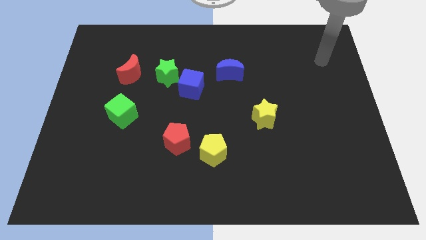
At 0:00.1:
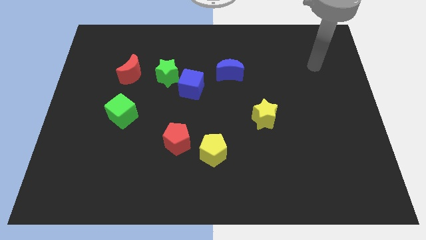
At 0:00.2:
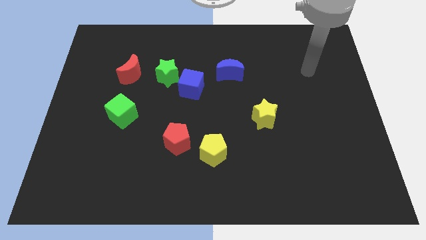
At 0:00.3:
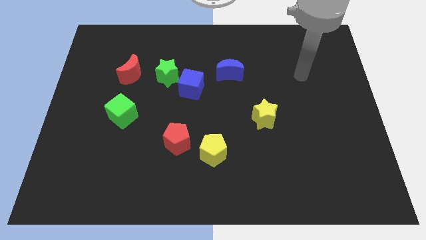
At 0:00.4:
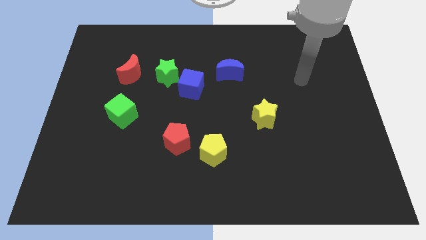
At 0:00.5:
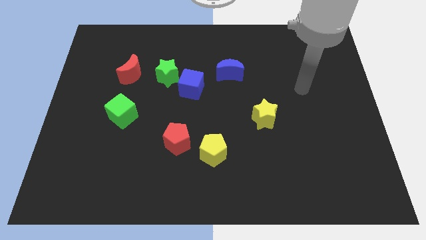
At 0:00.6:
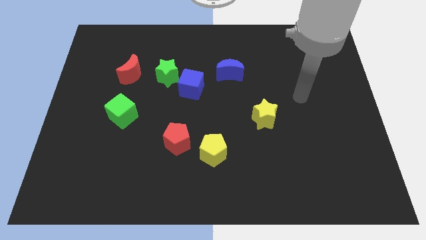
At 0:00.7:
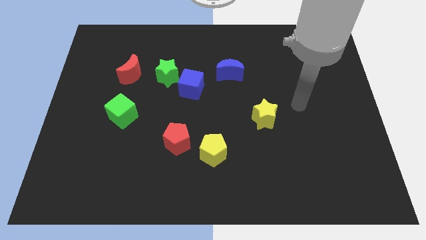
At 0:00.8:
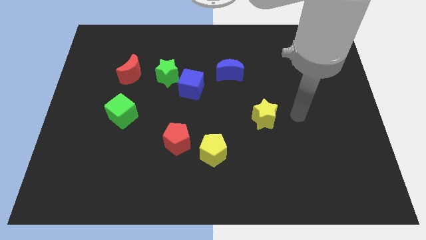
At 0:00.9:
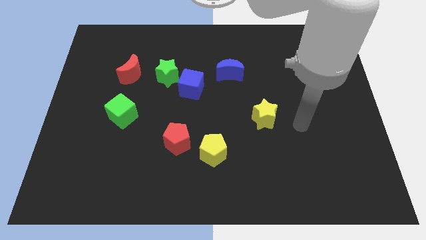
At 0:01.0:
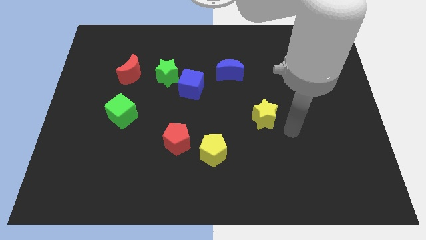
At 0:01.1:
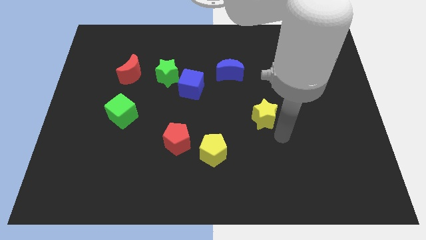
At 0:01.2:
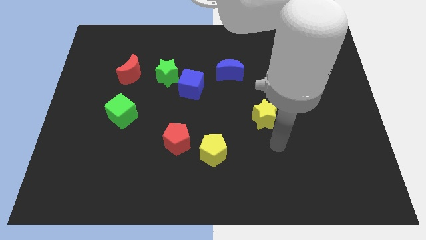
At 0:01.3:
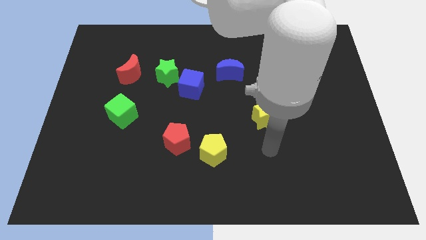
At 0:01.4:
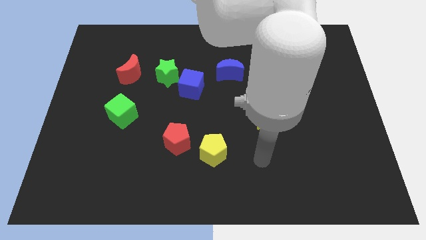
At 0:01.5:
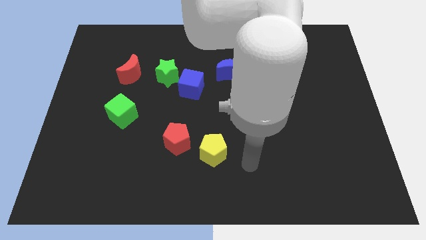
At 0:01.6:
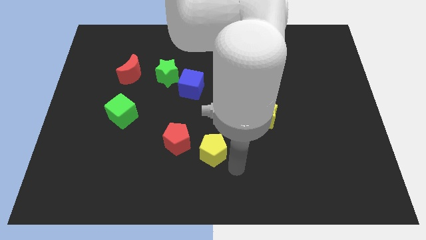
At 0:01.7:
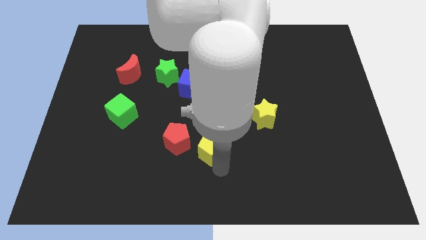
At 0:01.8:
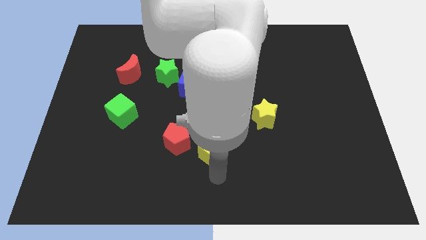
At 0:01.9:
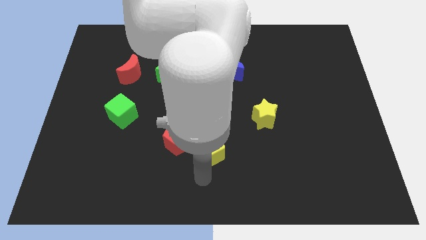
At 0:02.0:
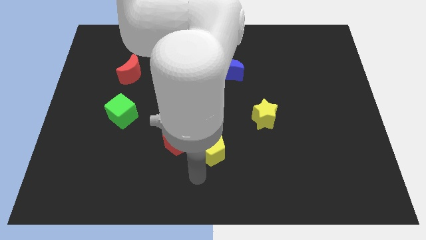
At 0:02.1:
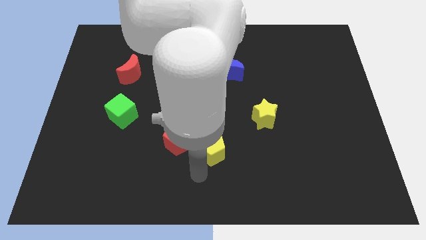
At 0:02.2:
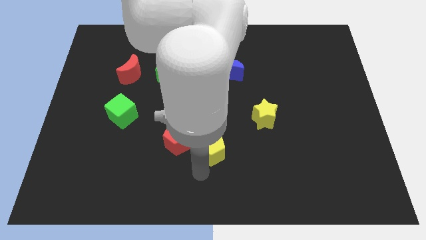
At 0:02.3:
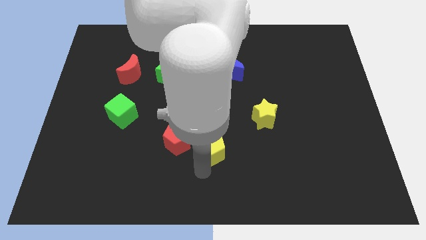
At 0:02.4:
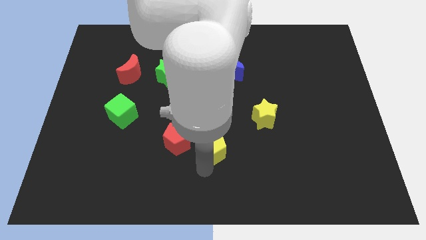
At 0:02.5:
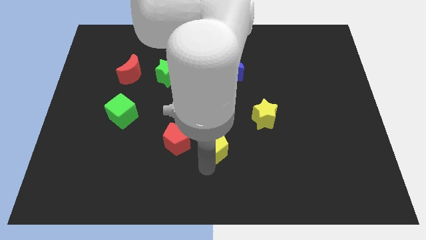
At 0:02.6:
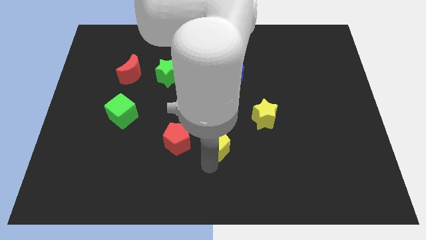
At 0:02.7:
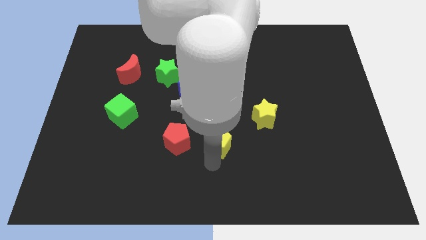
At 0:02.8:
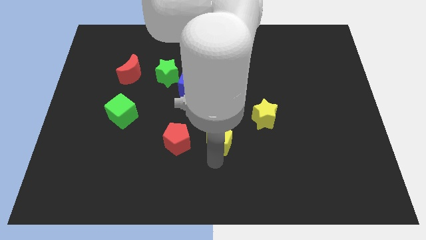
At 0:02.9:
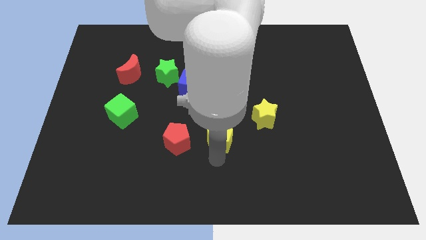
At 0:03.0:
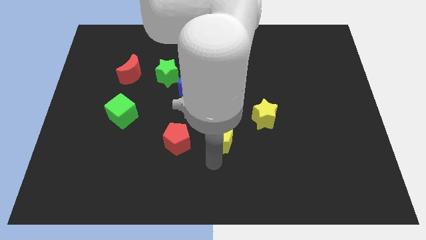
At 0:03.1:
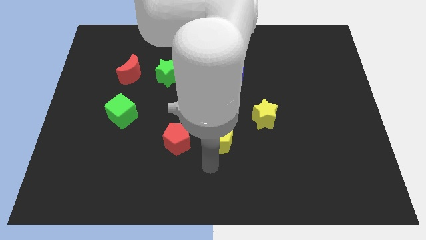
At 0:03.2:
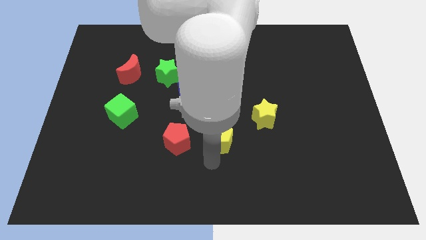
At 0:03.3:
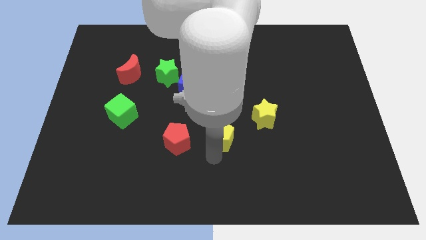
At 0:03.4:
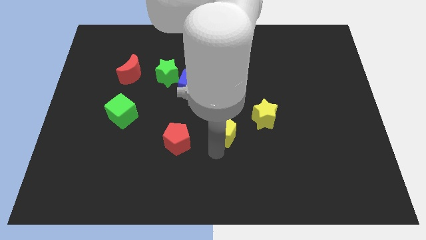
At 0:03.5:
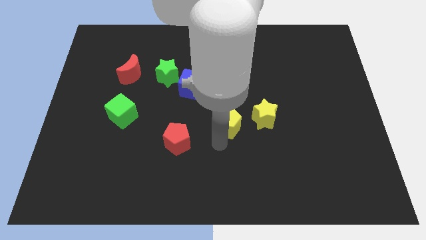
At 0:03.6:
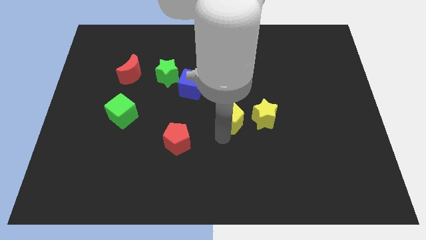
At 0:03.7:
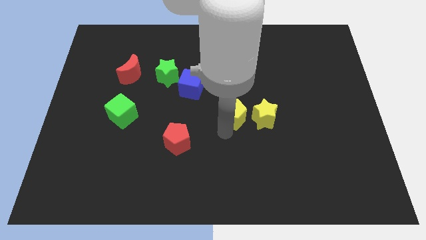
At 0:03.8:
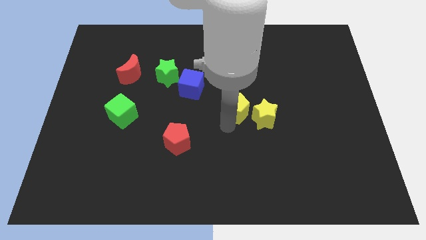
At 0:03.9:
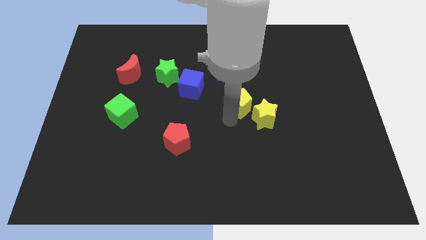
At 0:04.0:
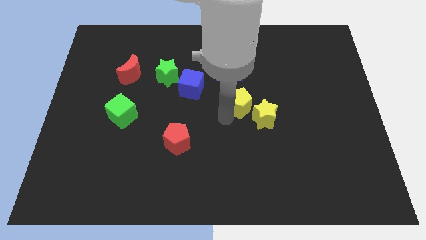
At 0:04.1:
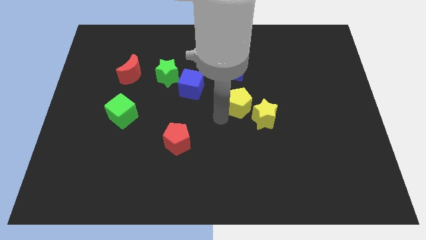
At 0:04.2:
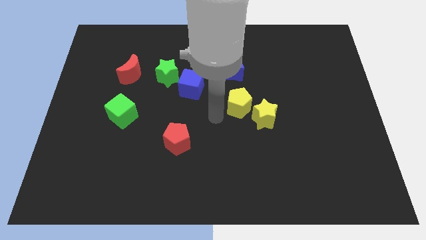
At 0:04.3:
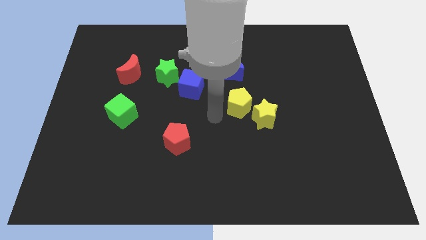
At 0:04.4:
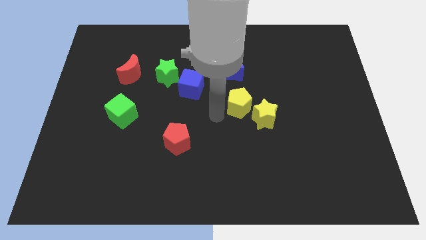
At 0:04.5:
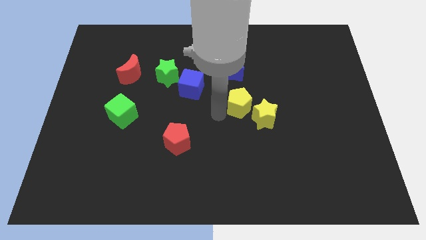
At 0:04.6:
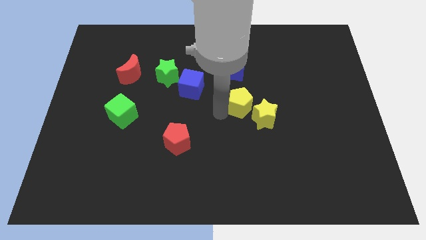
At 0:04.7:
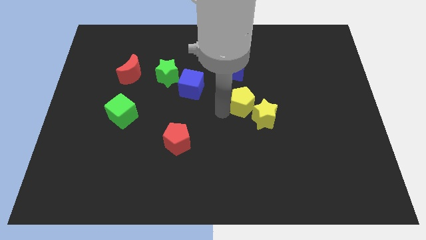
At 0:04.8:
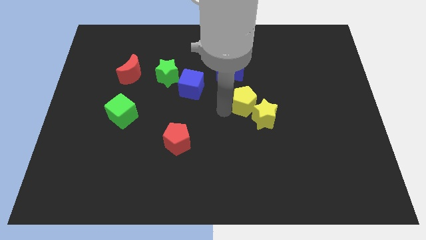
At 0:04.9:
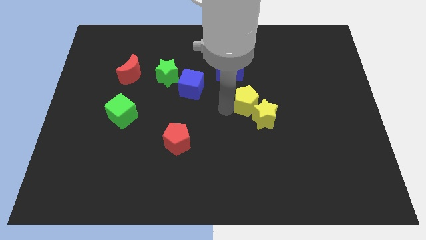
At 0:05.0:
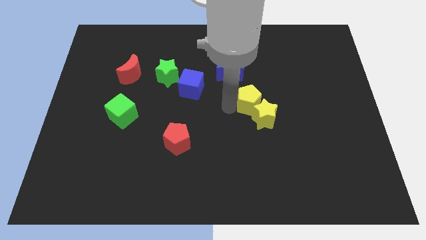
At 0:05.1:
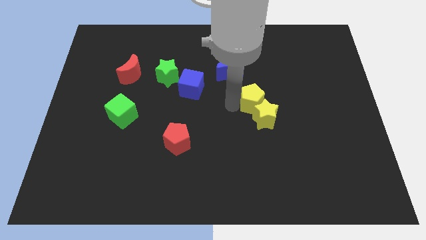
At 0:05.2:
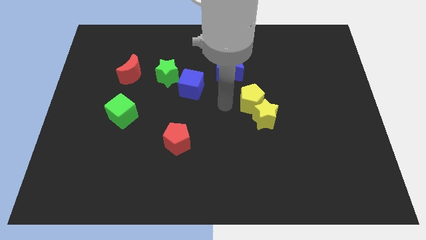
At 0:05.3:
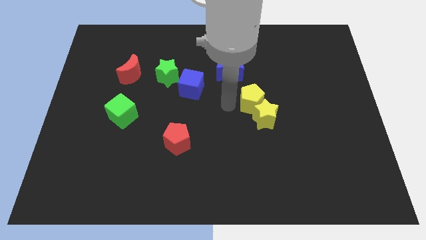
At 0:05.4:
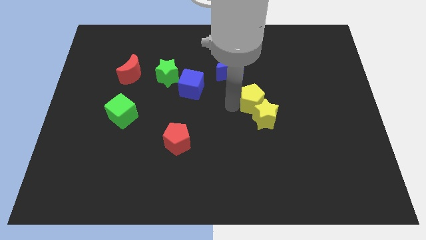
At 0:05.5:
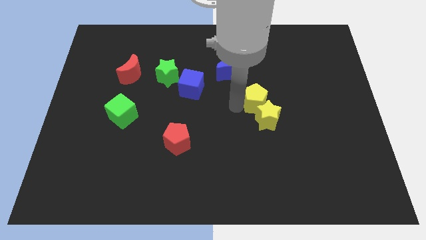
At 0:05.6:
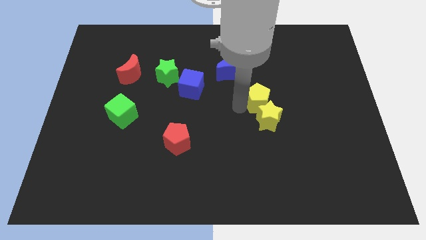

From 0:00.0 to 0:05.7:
slide the yellow pentagon diagonally up and to the right of the yellow star

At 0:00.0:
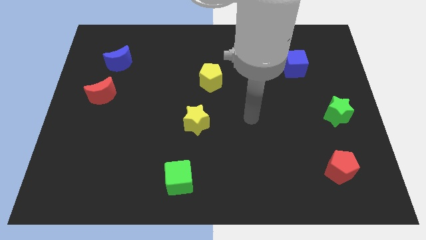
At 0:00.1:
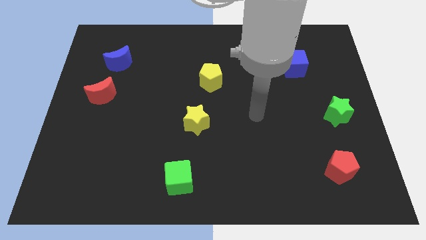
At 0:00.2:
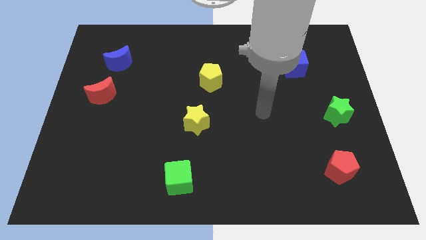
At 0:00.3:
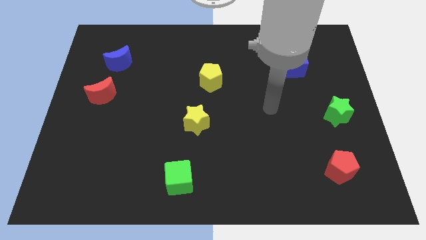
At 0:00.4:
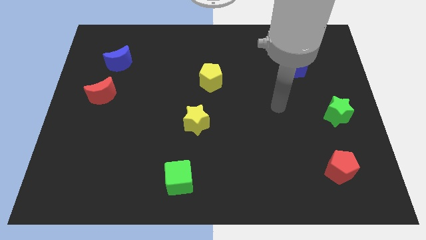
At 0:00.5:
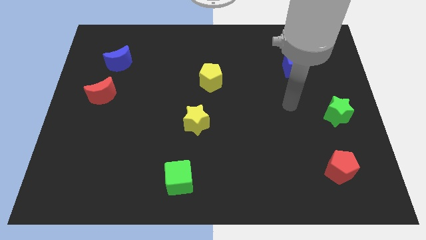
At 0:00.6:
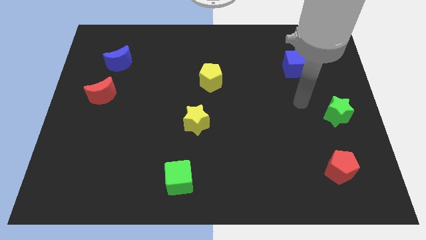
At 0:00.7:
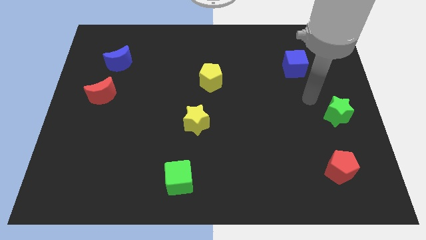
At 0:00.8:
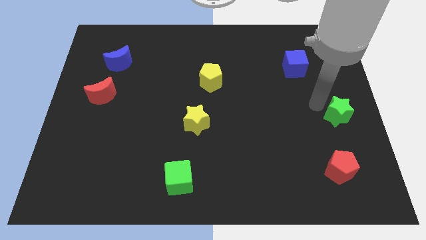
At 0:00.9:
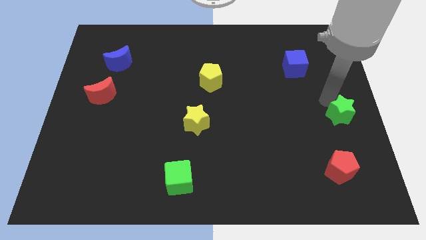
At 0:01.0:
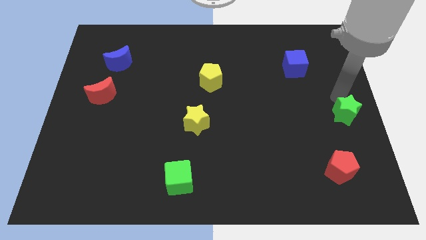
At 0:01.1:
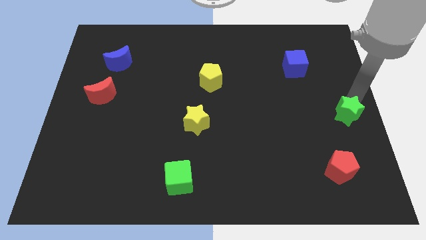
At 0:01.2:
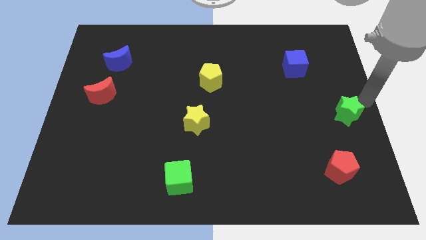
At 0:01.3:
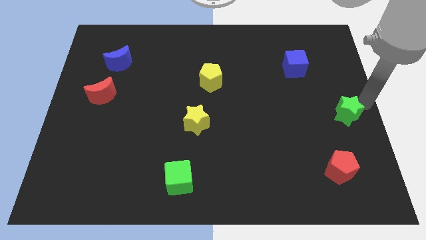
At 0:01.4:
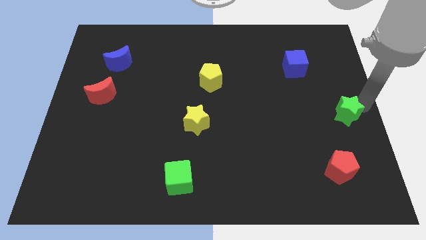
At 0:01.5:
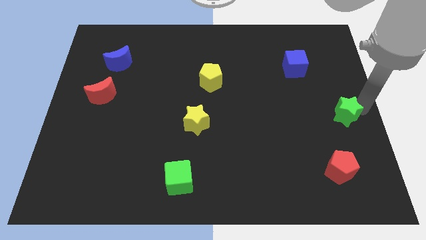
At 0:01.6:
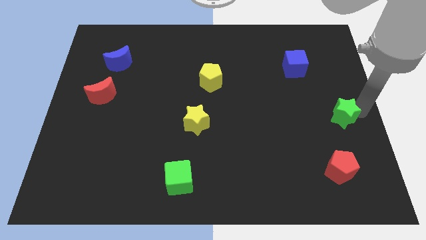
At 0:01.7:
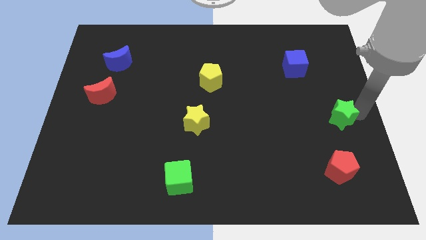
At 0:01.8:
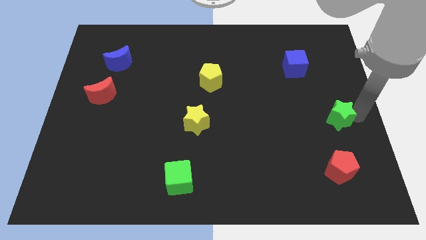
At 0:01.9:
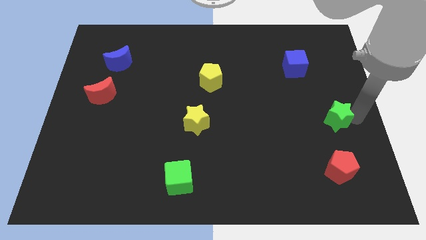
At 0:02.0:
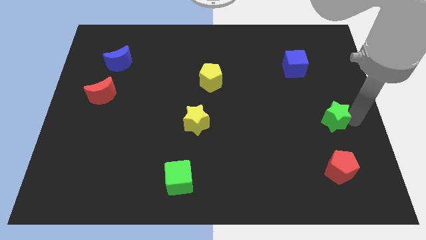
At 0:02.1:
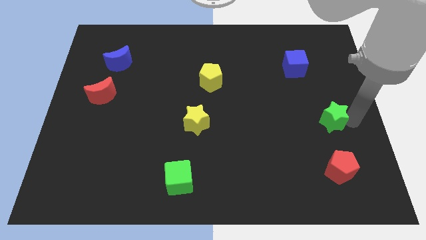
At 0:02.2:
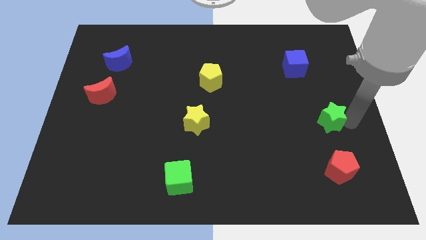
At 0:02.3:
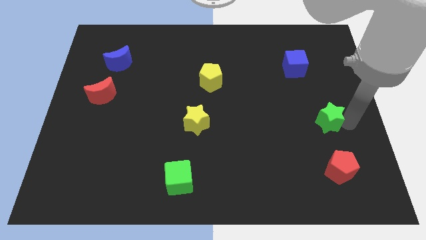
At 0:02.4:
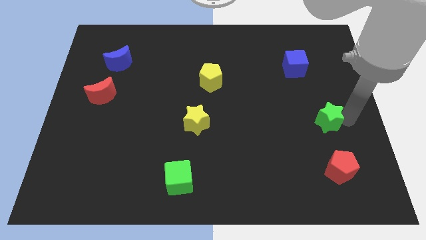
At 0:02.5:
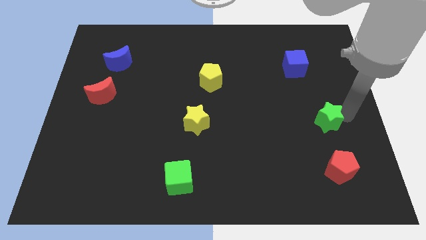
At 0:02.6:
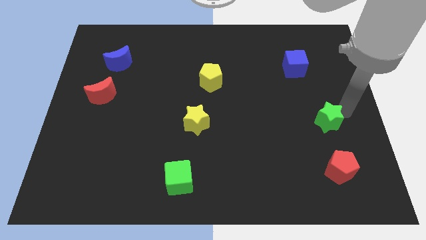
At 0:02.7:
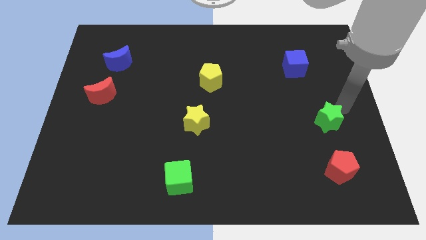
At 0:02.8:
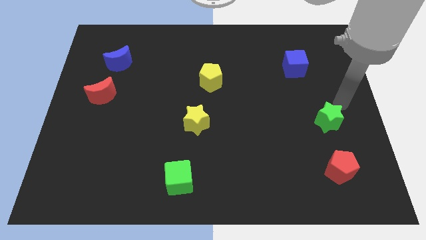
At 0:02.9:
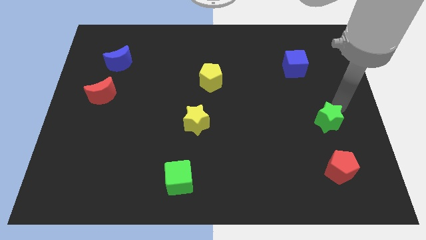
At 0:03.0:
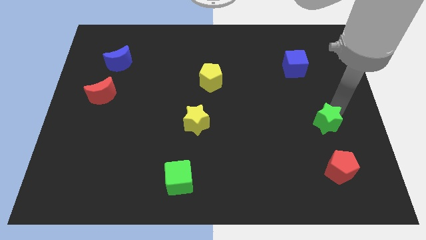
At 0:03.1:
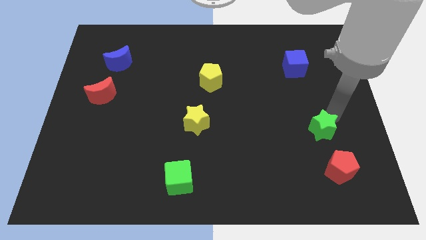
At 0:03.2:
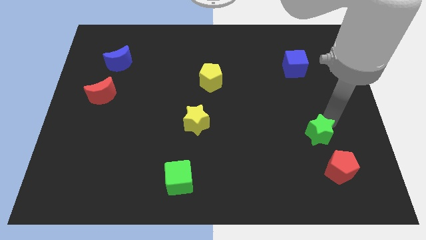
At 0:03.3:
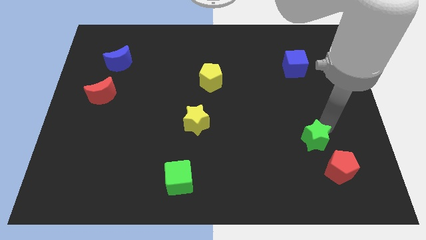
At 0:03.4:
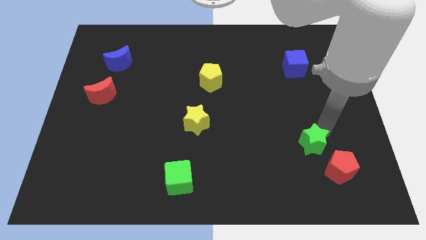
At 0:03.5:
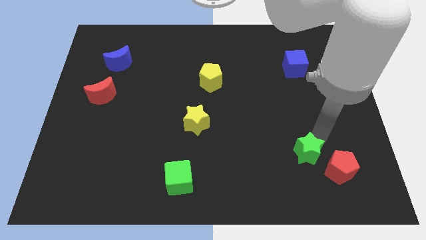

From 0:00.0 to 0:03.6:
move the green star to the left of the red pentagon
